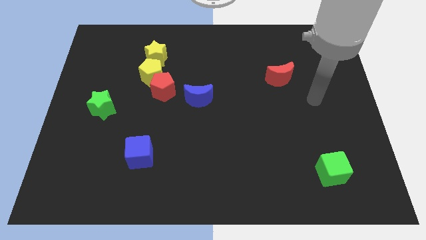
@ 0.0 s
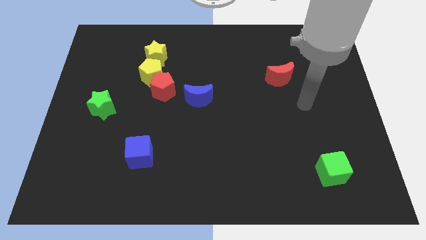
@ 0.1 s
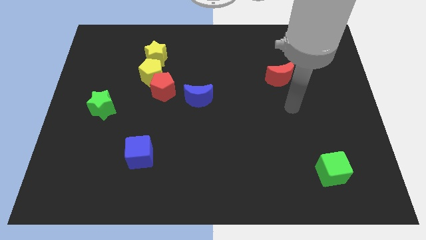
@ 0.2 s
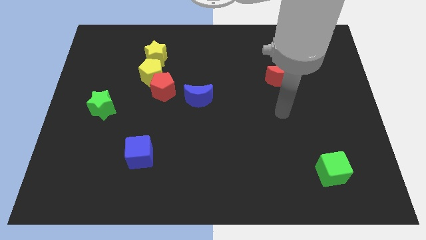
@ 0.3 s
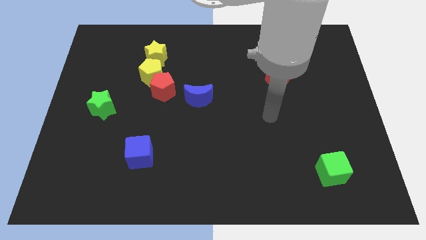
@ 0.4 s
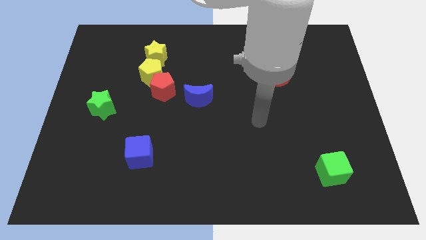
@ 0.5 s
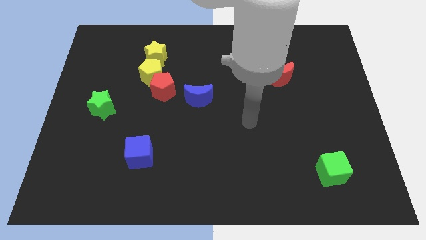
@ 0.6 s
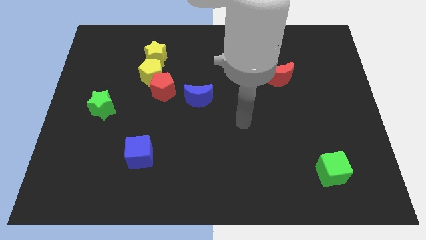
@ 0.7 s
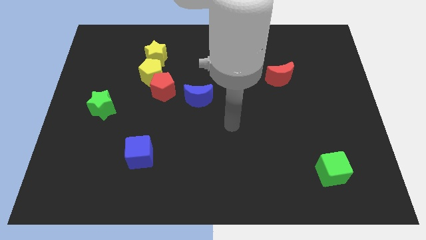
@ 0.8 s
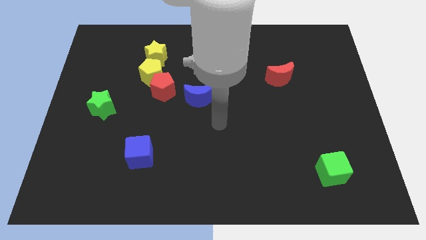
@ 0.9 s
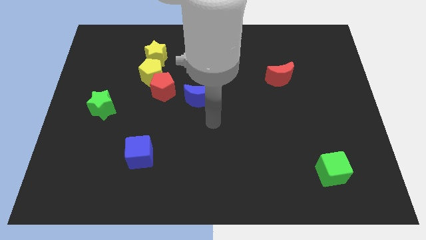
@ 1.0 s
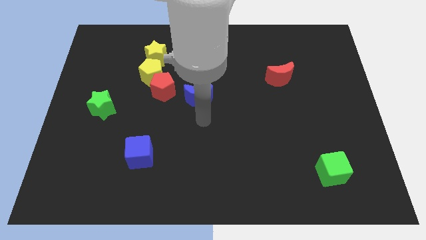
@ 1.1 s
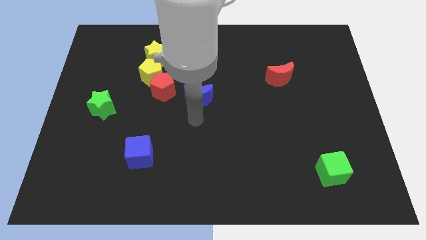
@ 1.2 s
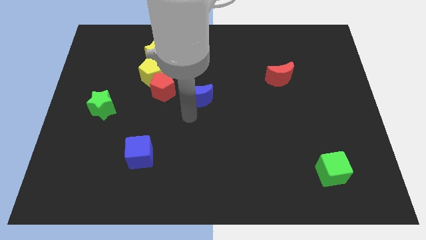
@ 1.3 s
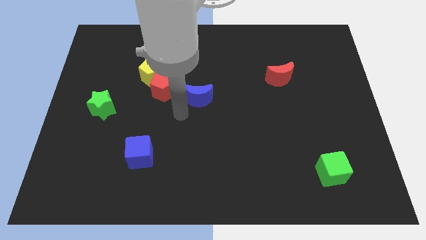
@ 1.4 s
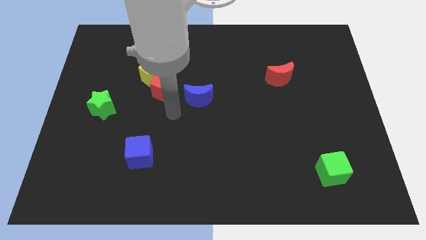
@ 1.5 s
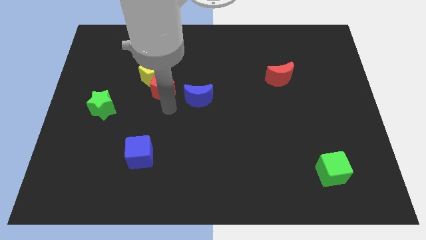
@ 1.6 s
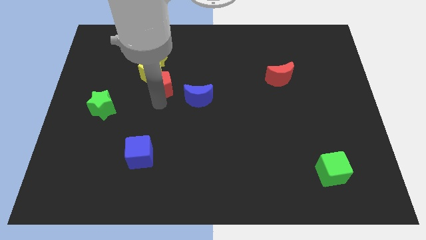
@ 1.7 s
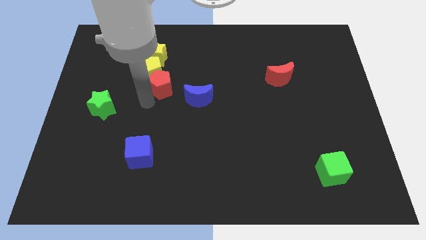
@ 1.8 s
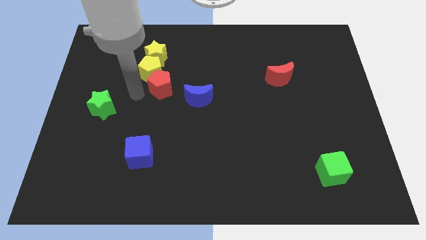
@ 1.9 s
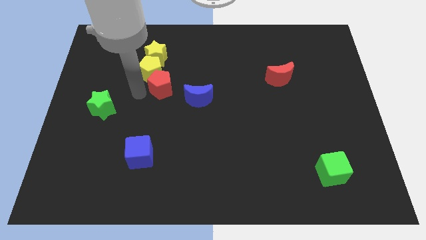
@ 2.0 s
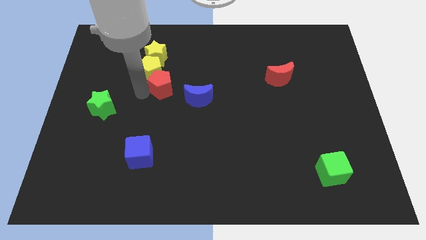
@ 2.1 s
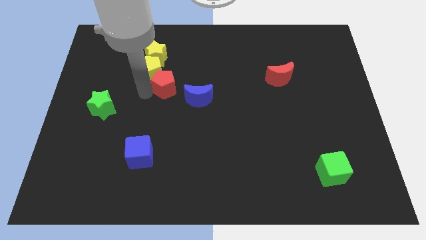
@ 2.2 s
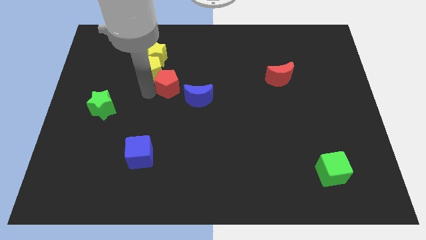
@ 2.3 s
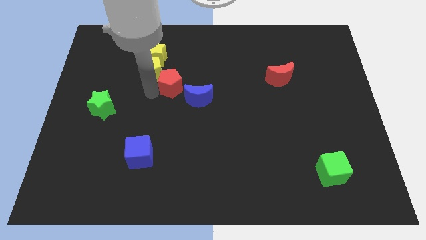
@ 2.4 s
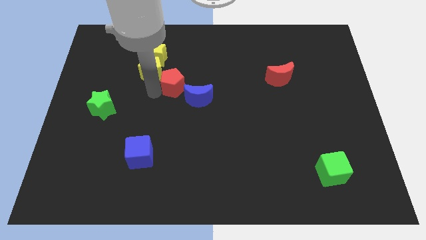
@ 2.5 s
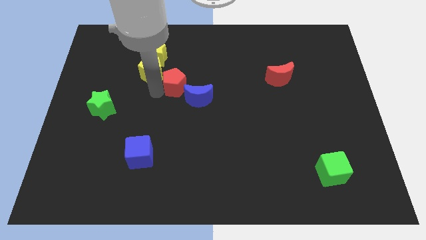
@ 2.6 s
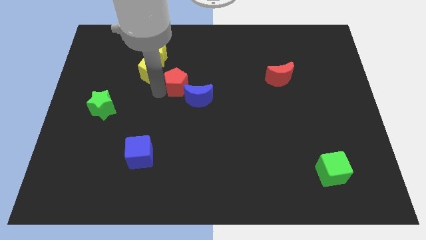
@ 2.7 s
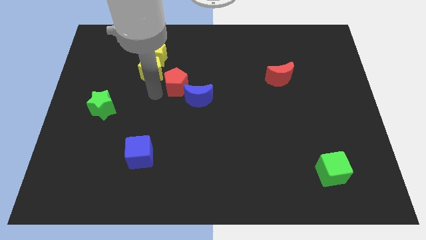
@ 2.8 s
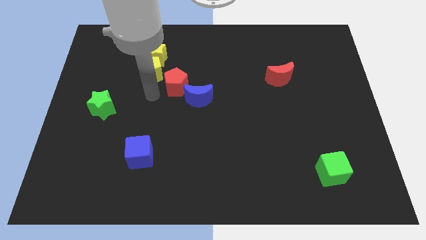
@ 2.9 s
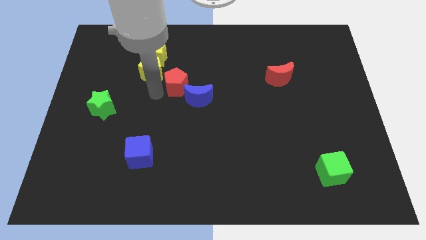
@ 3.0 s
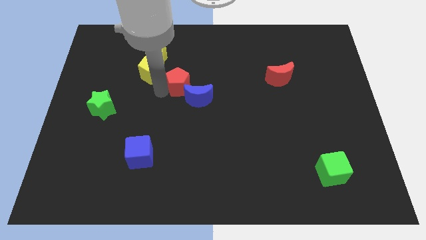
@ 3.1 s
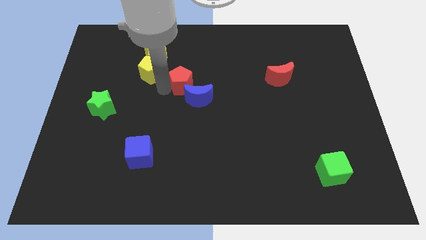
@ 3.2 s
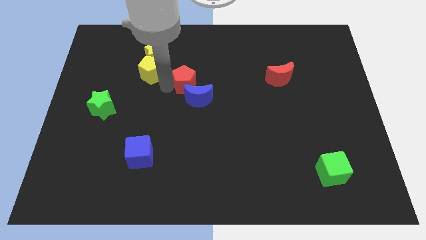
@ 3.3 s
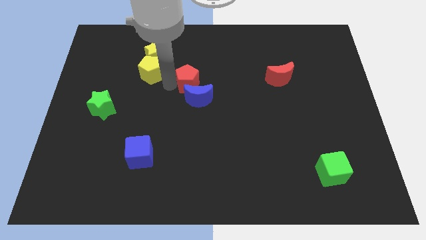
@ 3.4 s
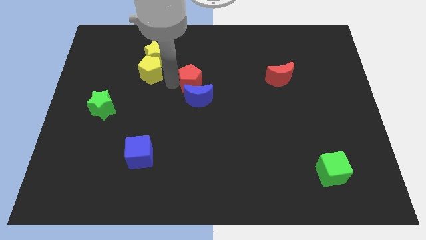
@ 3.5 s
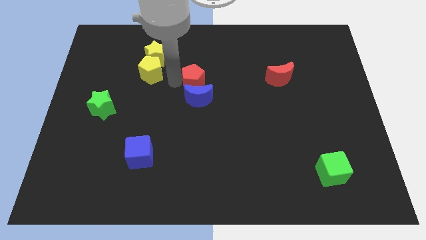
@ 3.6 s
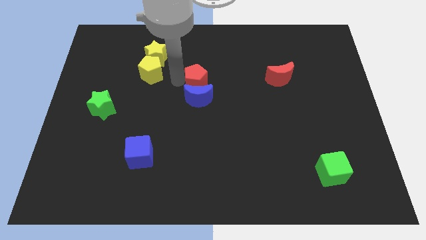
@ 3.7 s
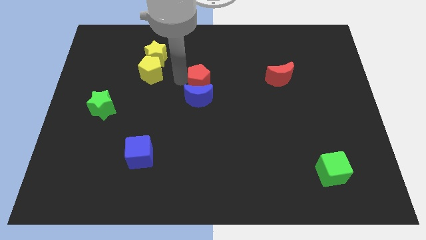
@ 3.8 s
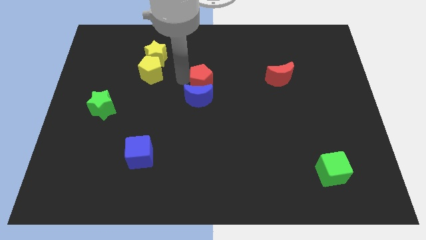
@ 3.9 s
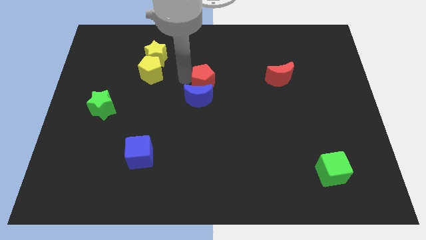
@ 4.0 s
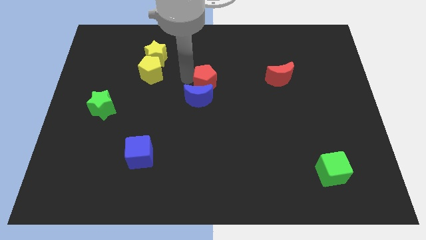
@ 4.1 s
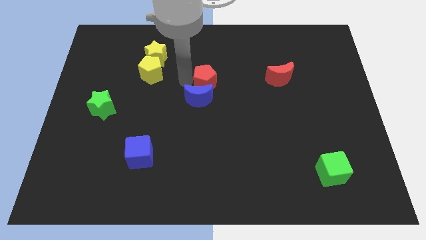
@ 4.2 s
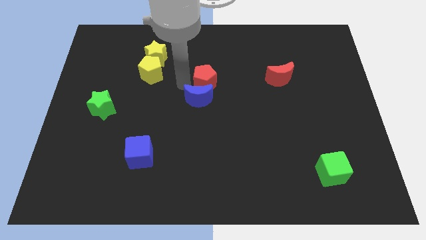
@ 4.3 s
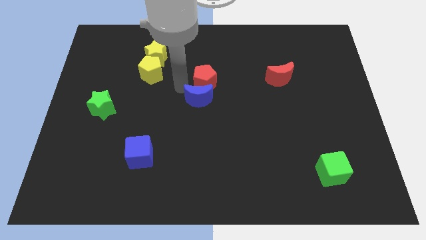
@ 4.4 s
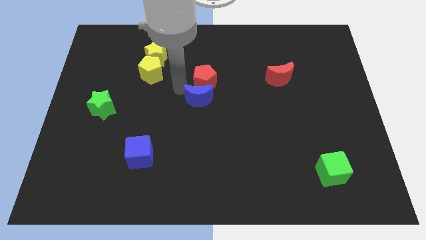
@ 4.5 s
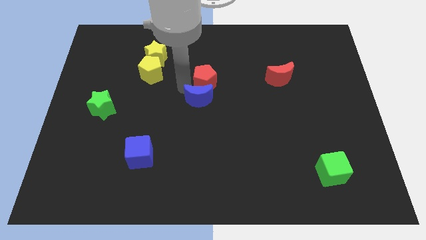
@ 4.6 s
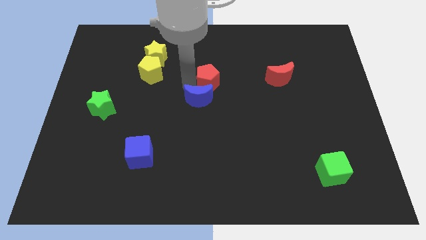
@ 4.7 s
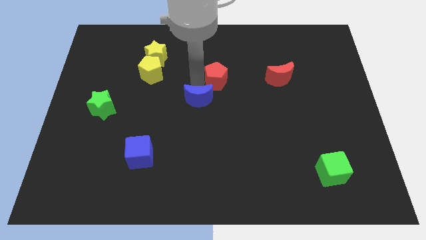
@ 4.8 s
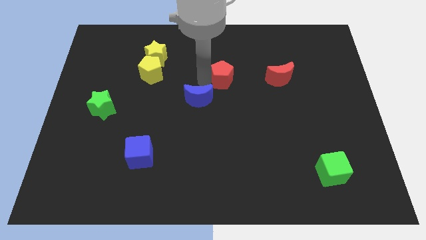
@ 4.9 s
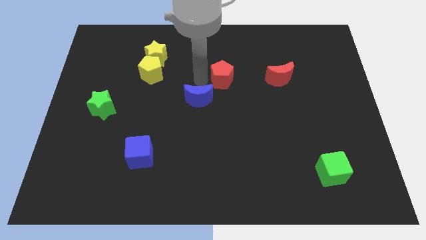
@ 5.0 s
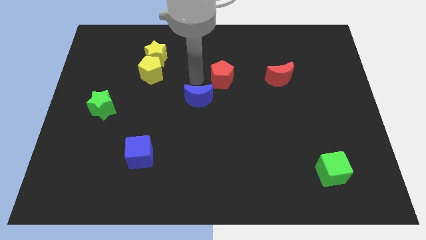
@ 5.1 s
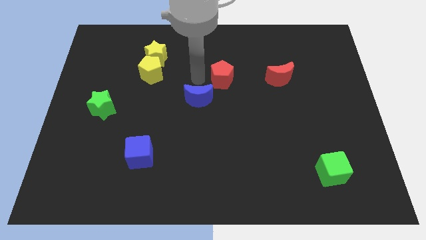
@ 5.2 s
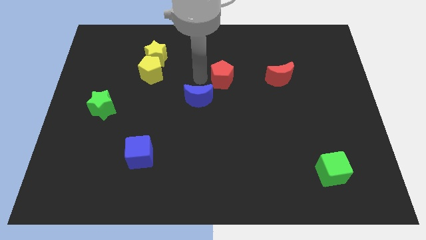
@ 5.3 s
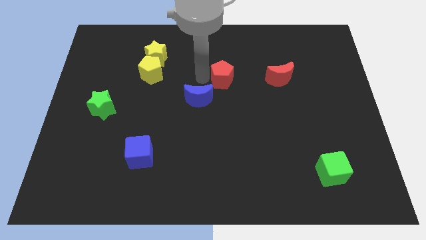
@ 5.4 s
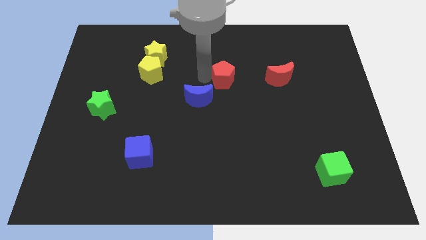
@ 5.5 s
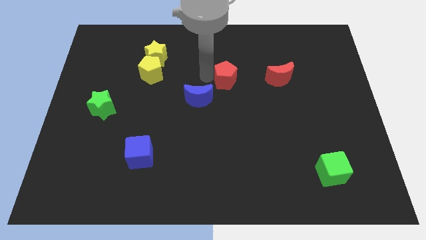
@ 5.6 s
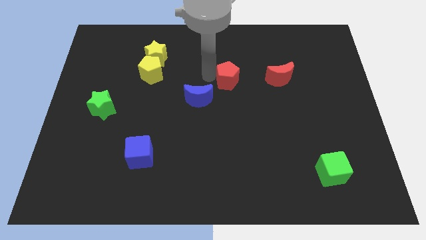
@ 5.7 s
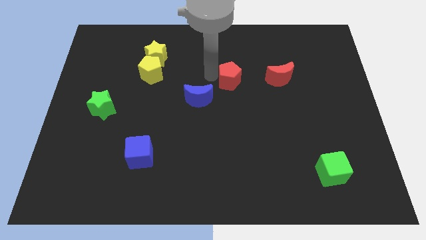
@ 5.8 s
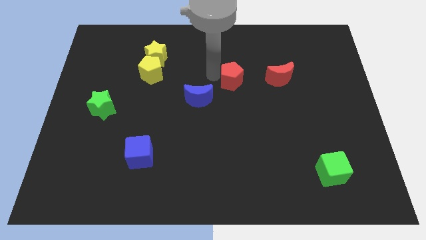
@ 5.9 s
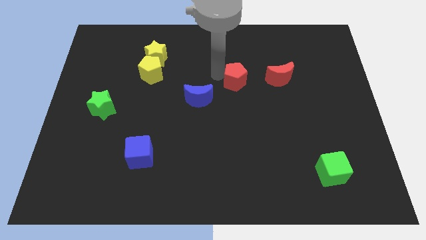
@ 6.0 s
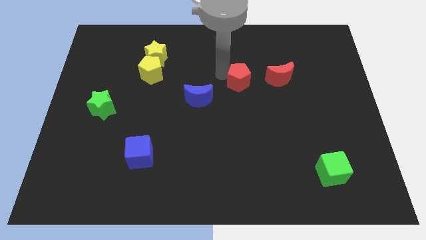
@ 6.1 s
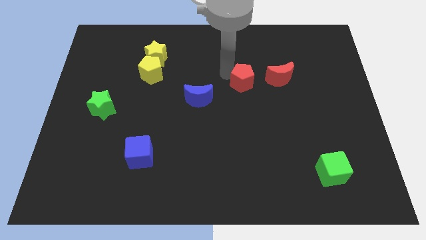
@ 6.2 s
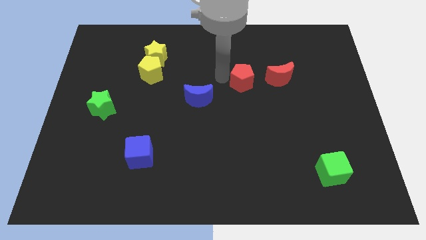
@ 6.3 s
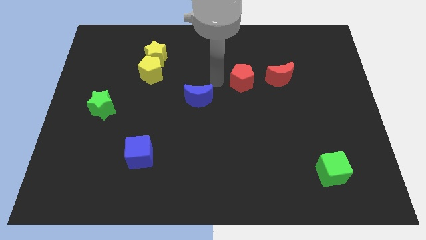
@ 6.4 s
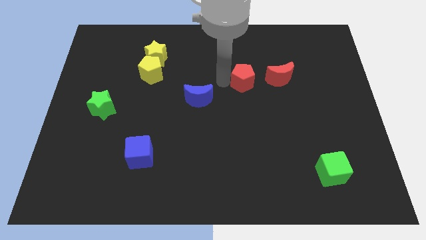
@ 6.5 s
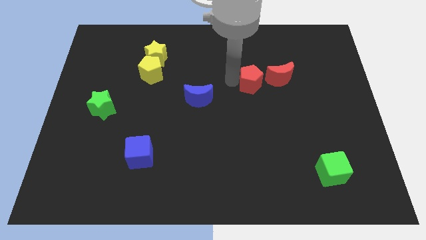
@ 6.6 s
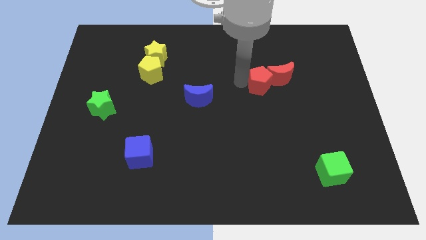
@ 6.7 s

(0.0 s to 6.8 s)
put the red pentagon towards the red moon

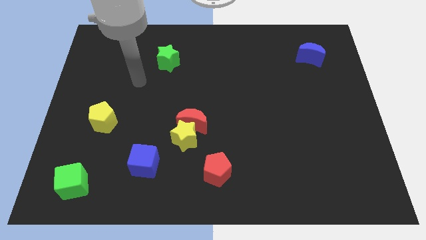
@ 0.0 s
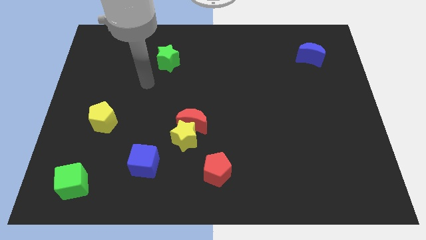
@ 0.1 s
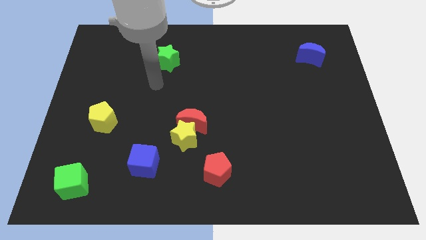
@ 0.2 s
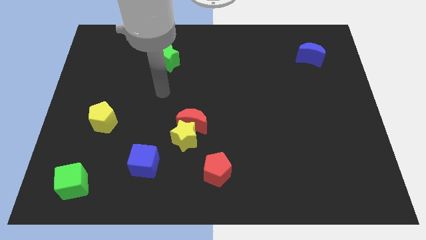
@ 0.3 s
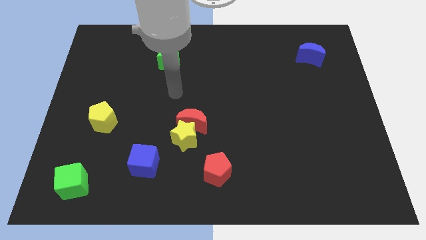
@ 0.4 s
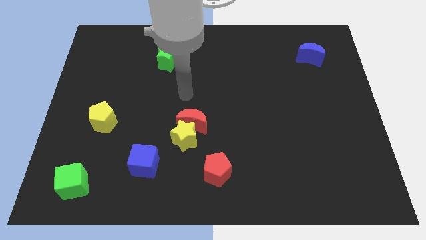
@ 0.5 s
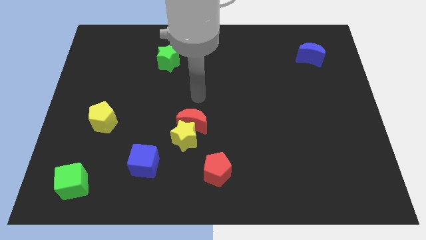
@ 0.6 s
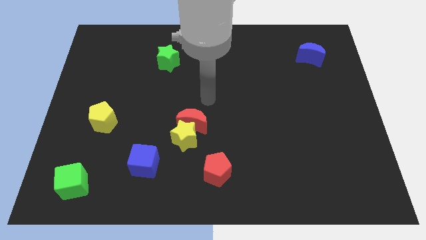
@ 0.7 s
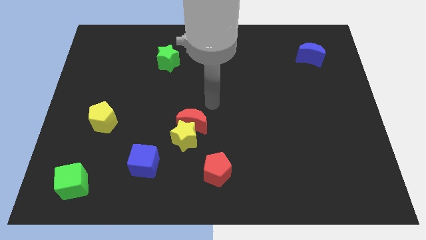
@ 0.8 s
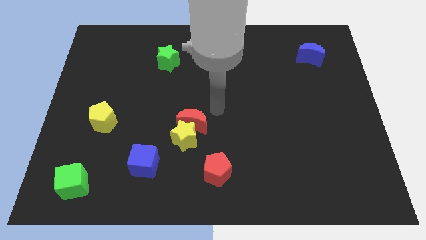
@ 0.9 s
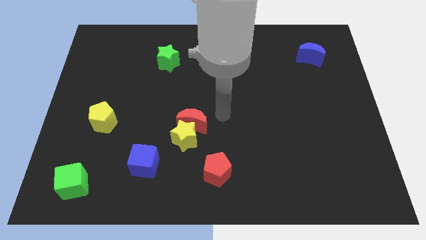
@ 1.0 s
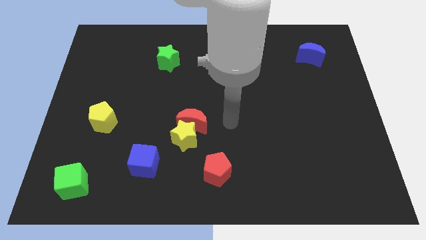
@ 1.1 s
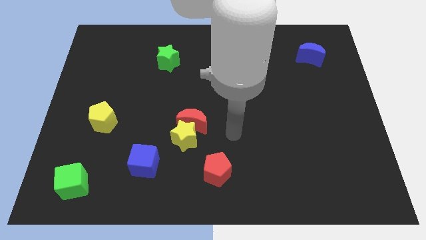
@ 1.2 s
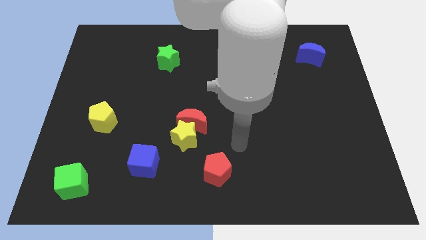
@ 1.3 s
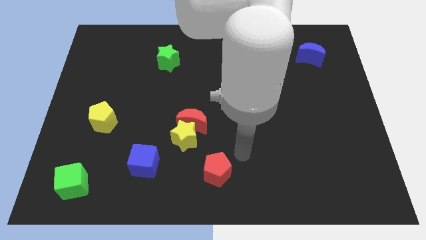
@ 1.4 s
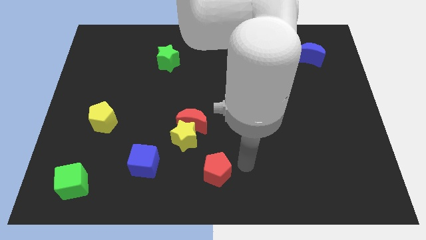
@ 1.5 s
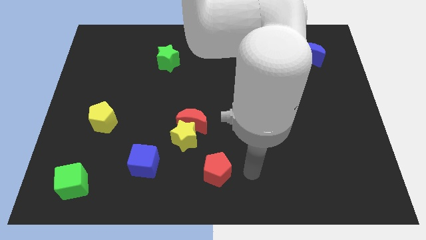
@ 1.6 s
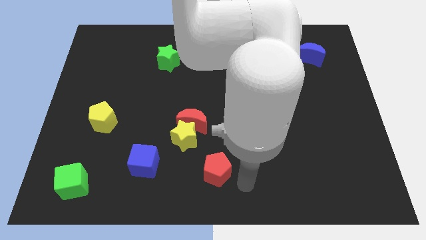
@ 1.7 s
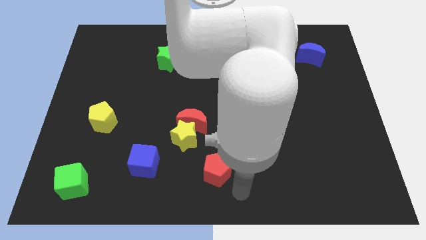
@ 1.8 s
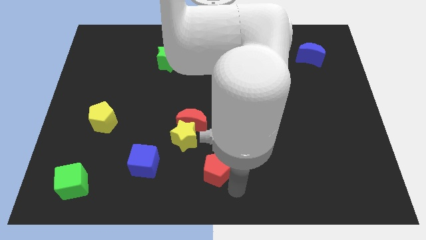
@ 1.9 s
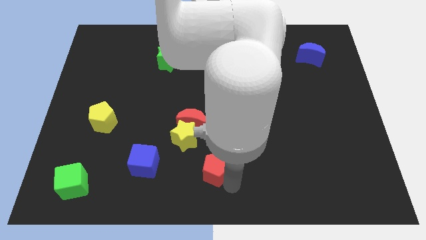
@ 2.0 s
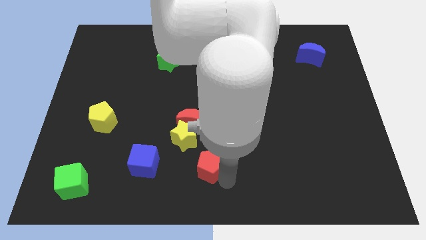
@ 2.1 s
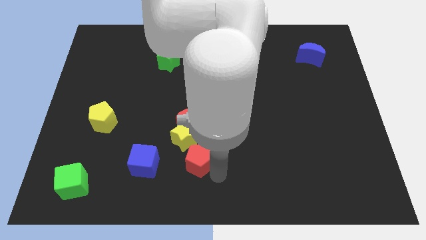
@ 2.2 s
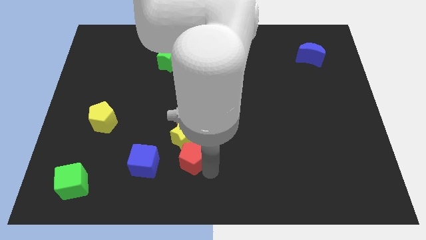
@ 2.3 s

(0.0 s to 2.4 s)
push the red pentagon towards the yellow star
